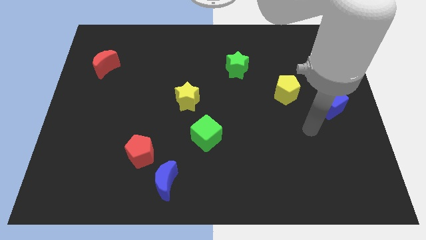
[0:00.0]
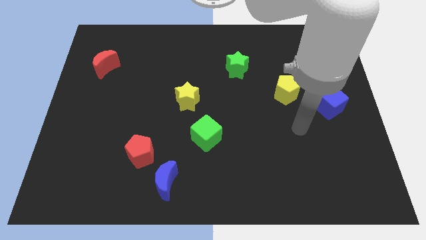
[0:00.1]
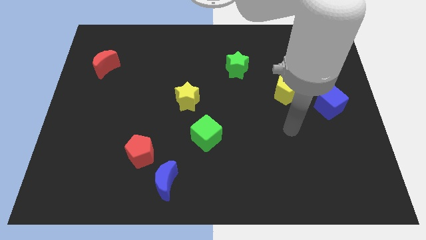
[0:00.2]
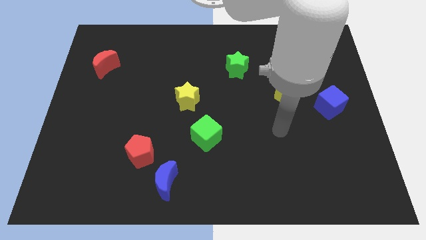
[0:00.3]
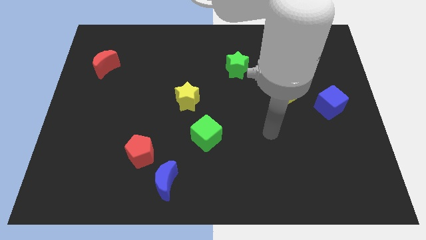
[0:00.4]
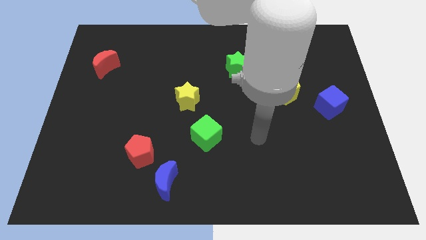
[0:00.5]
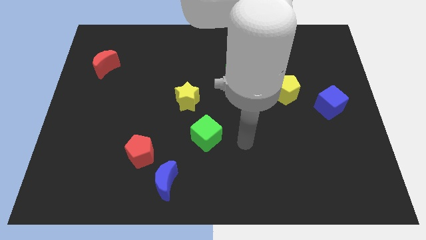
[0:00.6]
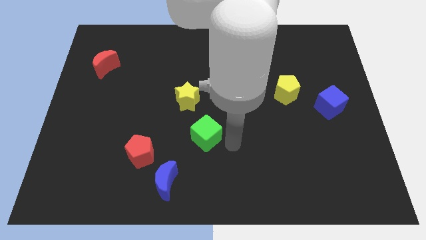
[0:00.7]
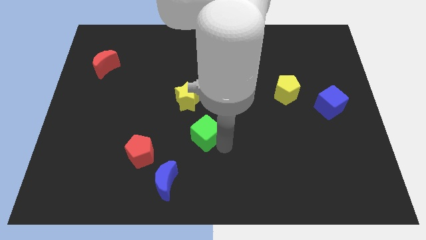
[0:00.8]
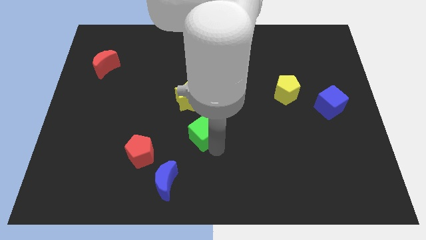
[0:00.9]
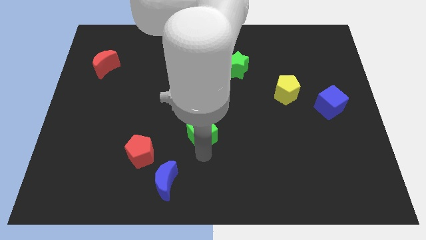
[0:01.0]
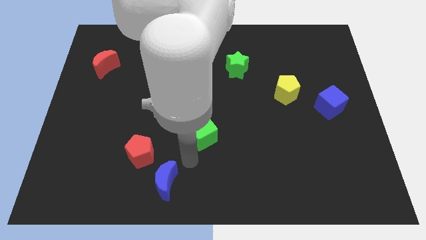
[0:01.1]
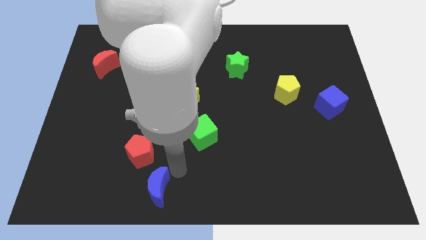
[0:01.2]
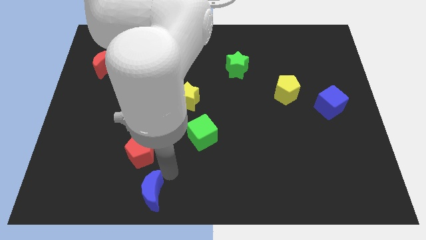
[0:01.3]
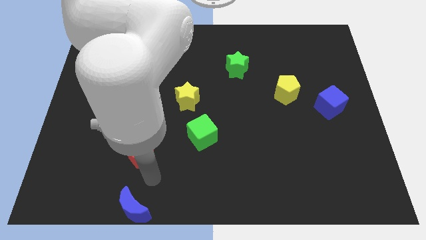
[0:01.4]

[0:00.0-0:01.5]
separate the red pentagon from the blue moon

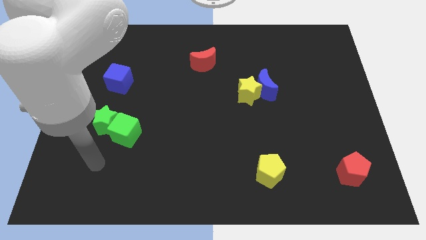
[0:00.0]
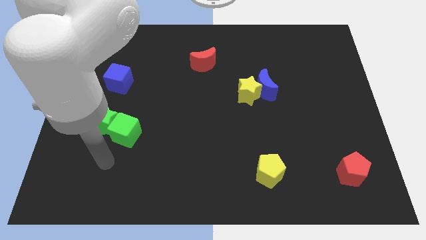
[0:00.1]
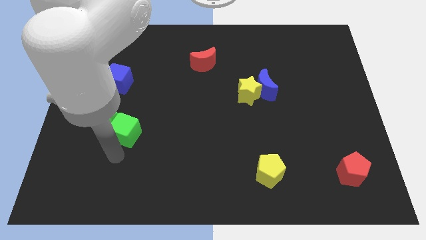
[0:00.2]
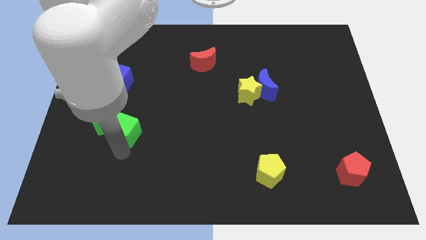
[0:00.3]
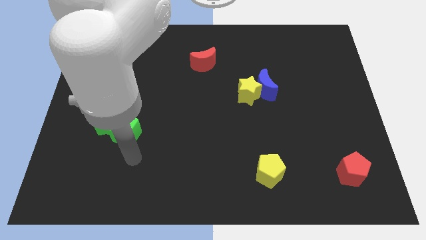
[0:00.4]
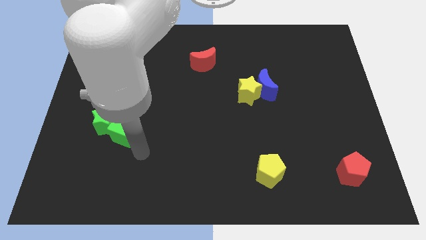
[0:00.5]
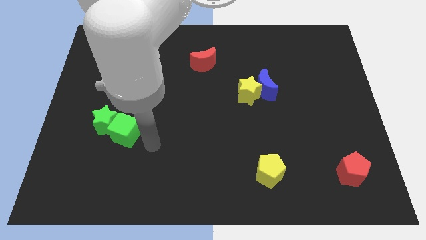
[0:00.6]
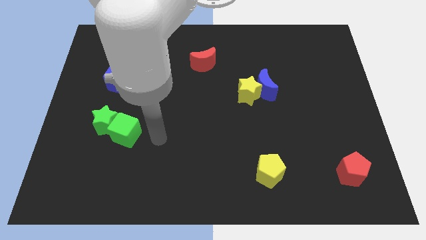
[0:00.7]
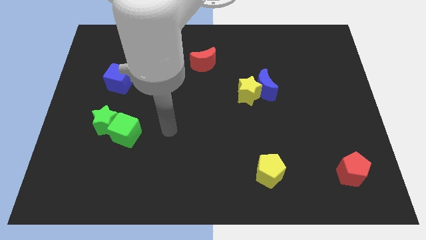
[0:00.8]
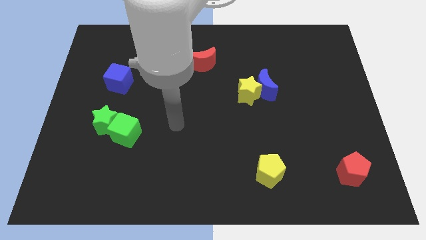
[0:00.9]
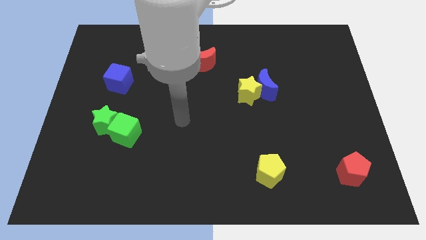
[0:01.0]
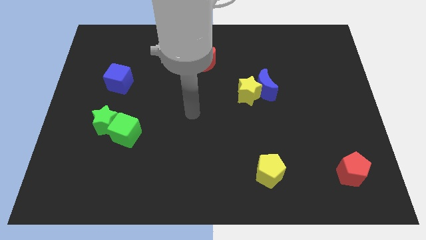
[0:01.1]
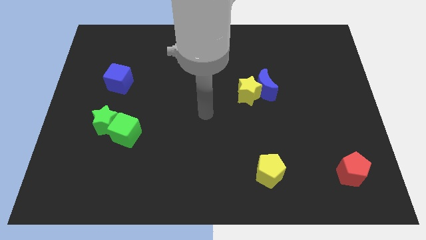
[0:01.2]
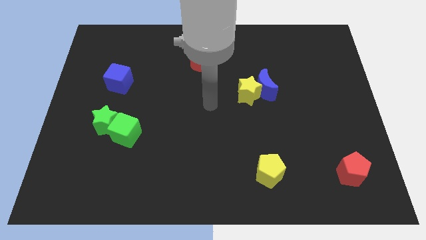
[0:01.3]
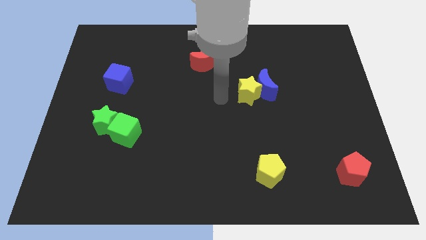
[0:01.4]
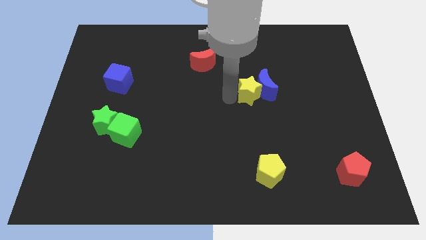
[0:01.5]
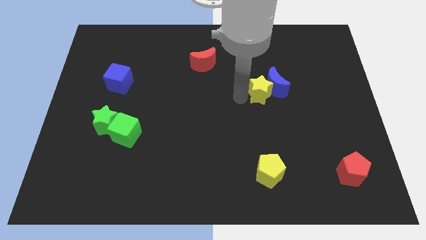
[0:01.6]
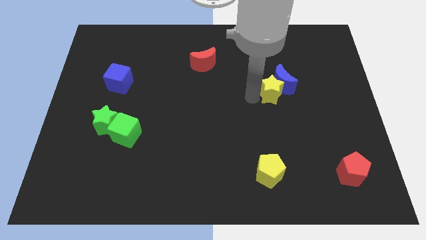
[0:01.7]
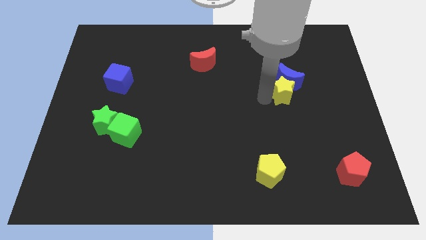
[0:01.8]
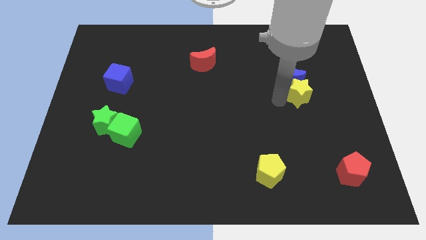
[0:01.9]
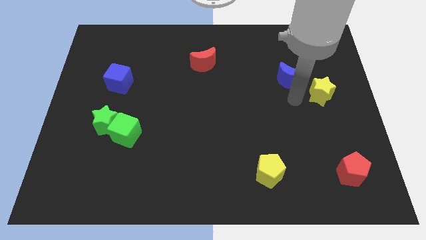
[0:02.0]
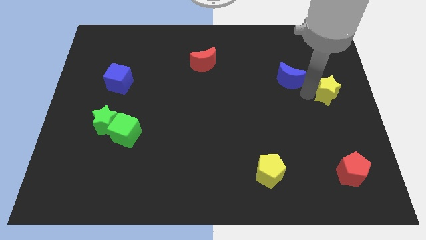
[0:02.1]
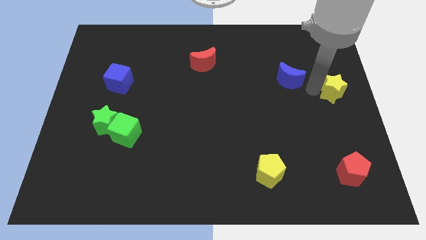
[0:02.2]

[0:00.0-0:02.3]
move the blue moon away from the yellow star

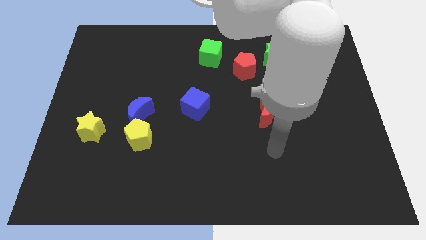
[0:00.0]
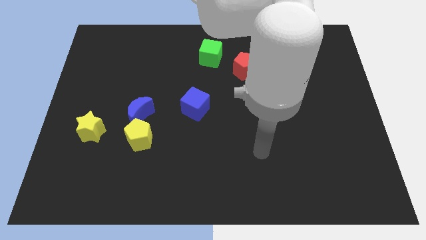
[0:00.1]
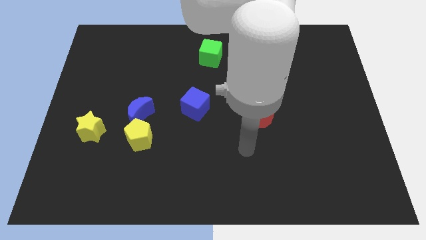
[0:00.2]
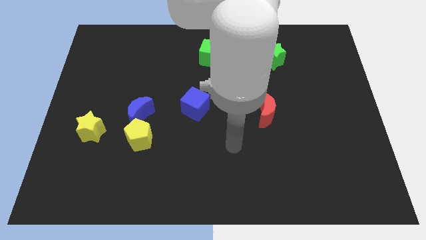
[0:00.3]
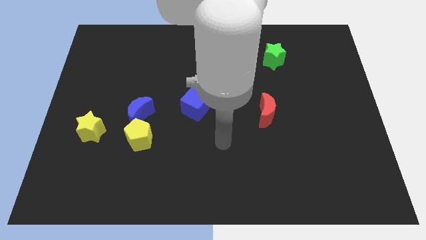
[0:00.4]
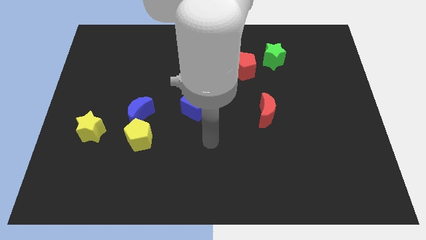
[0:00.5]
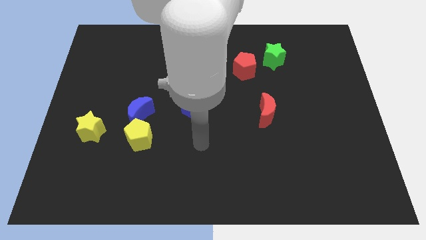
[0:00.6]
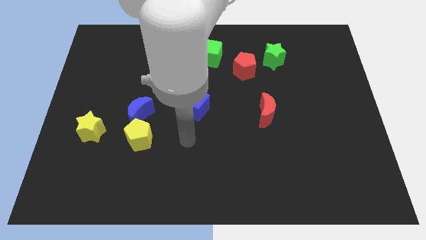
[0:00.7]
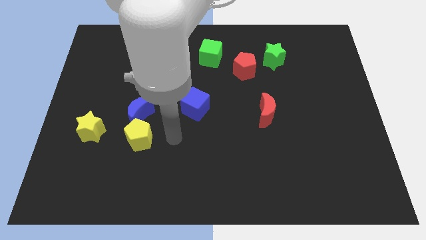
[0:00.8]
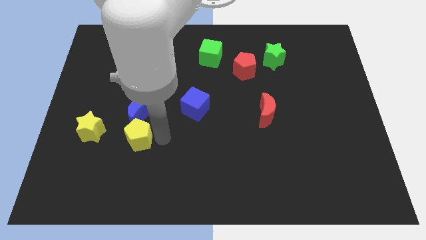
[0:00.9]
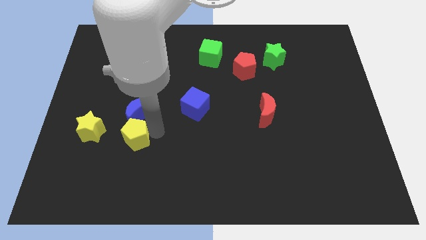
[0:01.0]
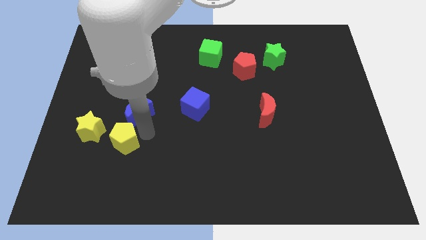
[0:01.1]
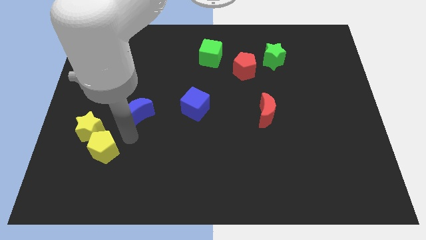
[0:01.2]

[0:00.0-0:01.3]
move the blue moon away from the yellow pentagon

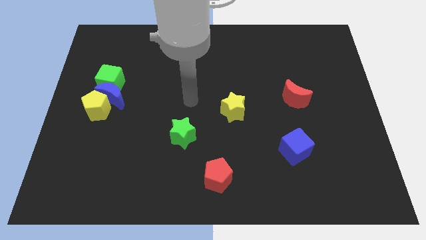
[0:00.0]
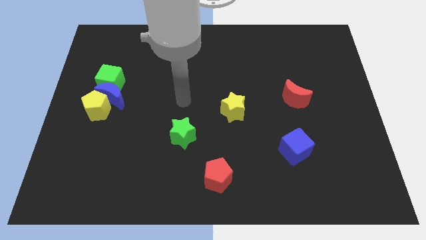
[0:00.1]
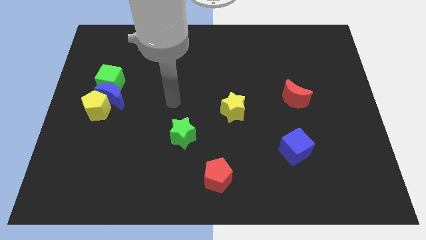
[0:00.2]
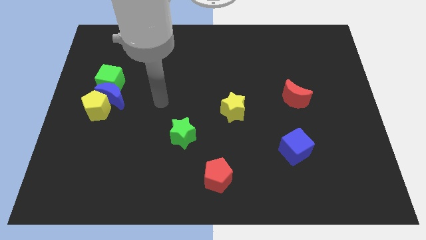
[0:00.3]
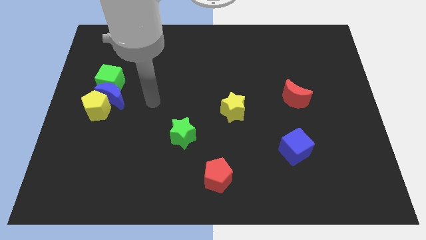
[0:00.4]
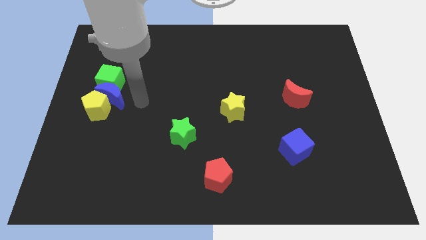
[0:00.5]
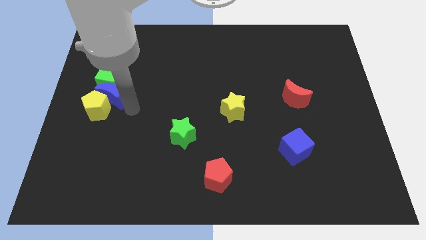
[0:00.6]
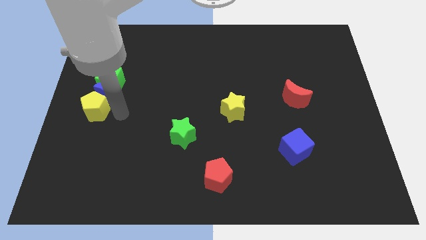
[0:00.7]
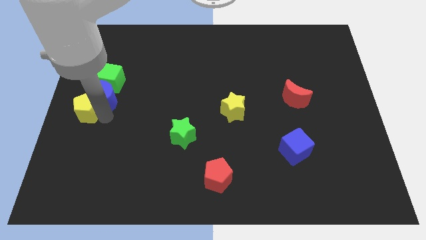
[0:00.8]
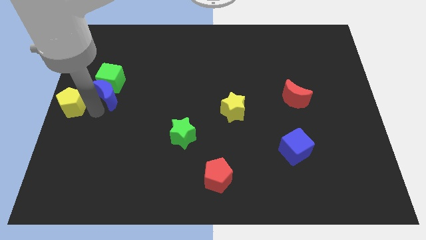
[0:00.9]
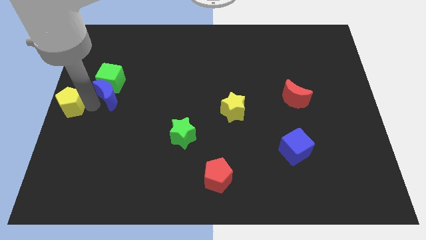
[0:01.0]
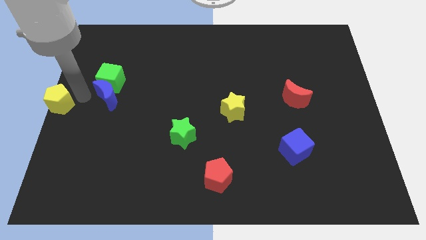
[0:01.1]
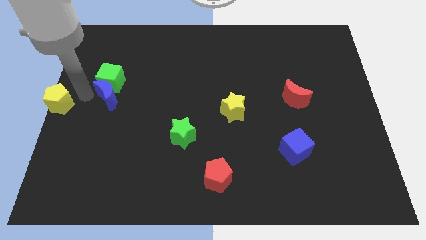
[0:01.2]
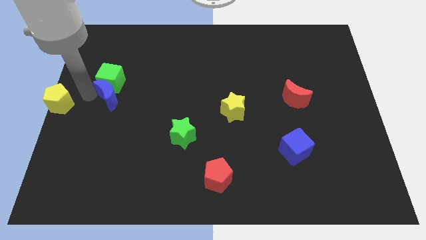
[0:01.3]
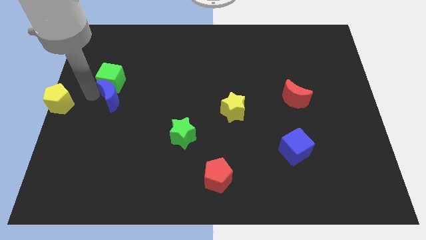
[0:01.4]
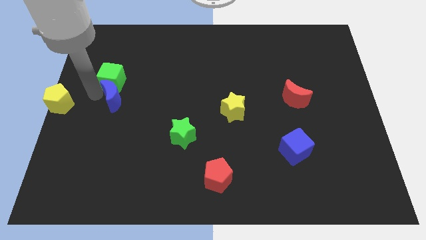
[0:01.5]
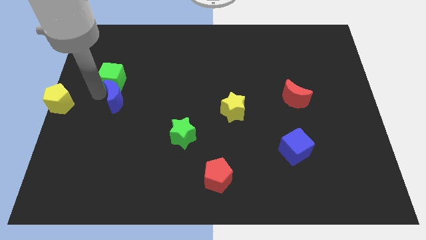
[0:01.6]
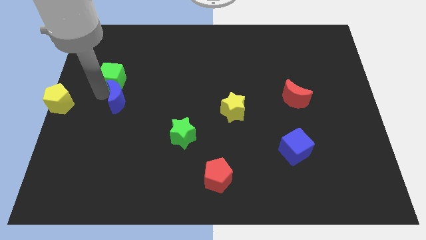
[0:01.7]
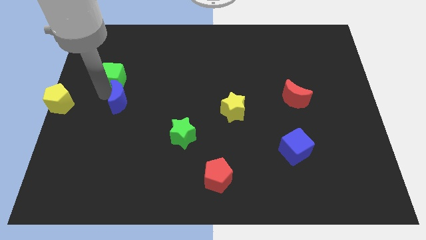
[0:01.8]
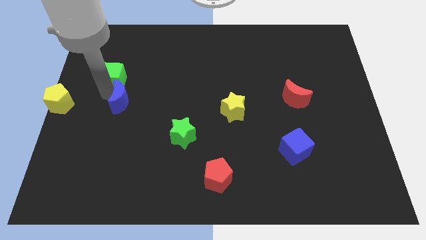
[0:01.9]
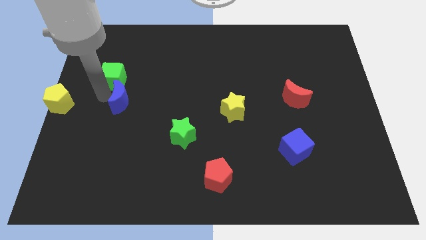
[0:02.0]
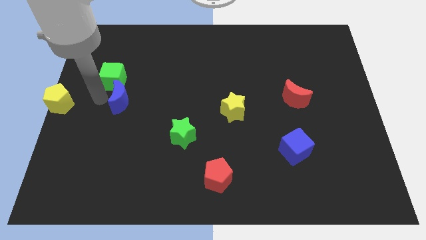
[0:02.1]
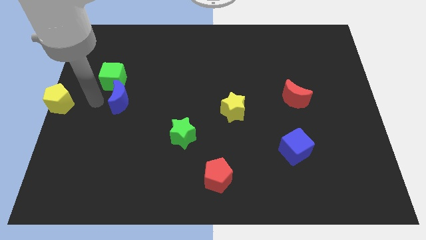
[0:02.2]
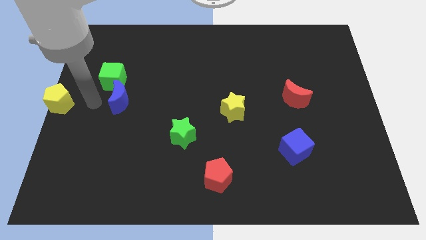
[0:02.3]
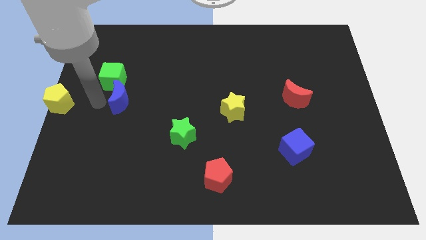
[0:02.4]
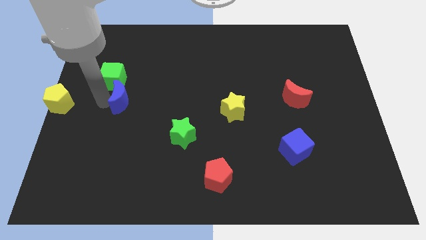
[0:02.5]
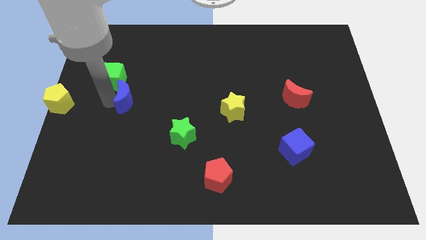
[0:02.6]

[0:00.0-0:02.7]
pull the blue moon apart from the yellow pentagon and green cube

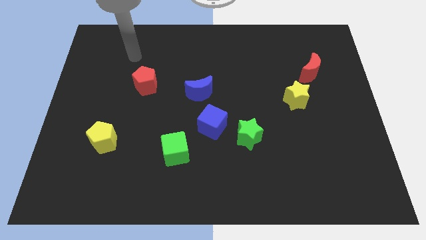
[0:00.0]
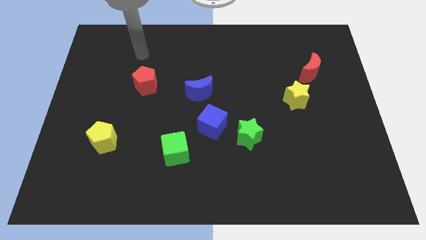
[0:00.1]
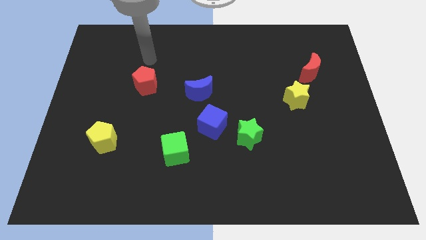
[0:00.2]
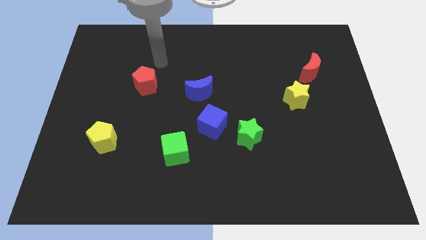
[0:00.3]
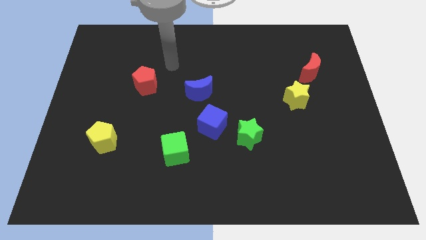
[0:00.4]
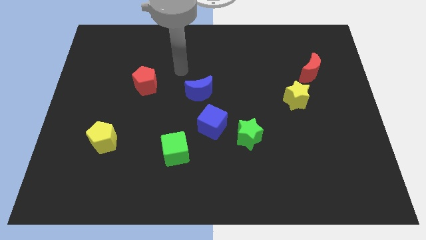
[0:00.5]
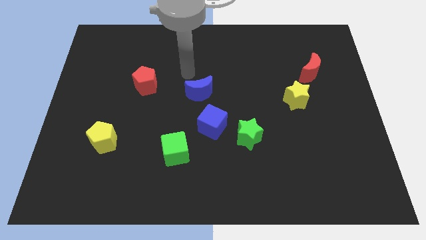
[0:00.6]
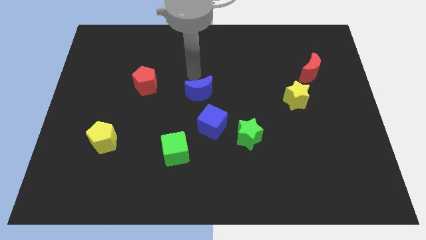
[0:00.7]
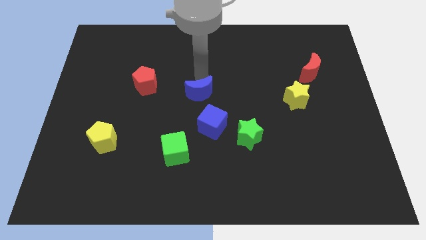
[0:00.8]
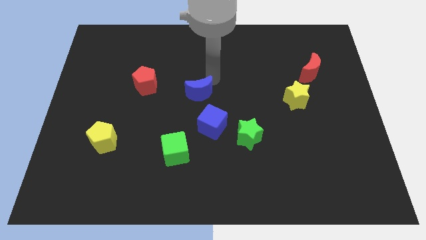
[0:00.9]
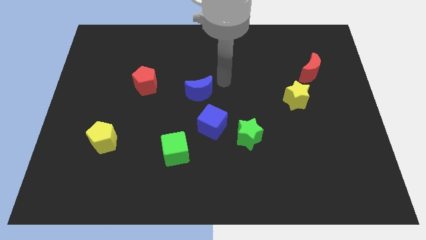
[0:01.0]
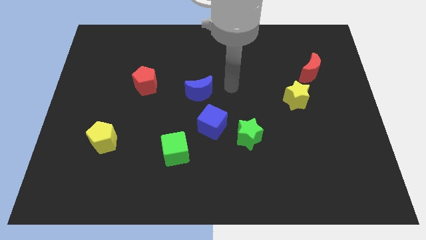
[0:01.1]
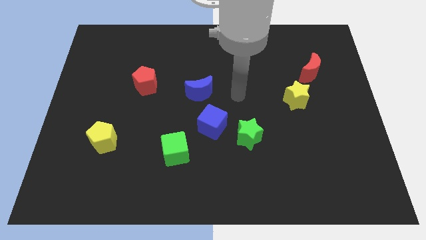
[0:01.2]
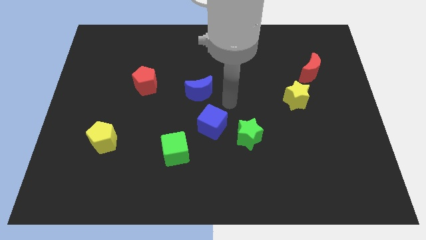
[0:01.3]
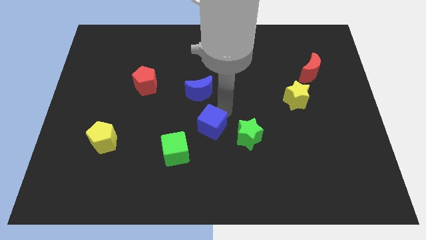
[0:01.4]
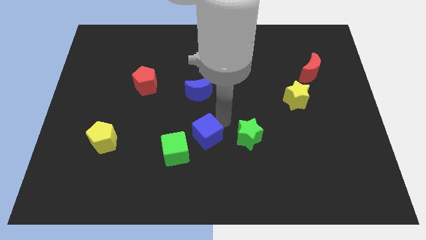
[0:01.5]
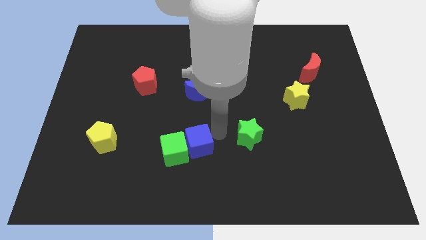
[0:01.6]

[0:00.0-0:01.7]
move the green star away from the blue cube

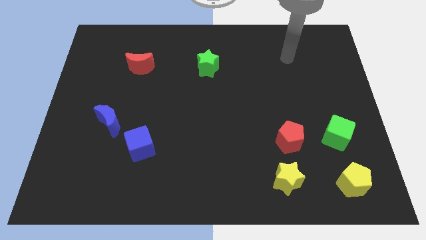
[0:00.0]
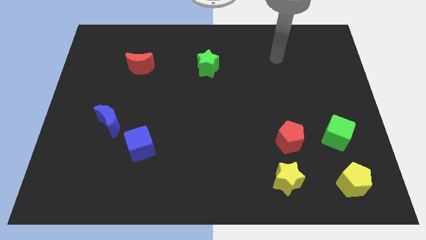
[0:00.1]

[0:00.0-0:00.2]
pull the blue moon apart from the blue cube
